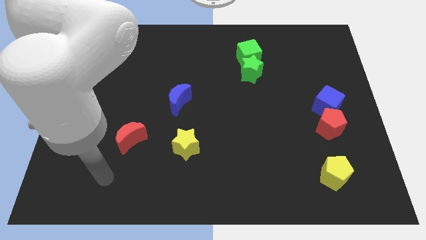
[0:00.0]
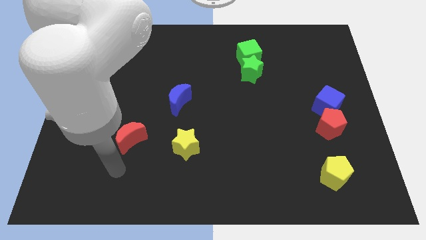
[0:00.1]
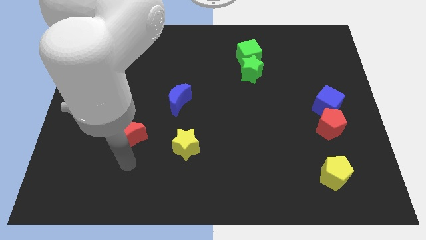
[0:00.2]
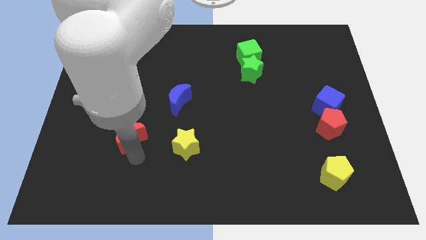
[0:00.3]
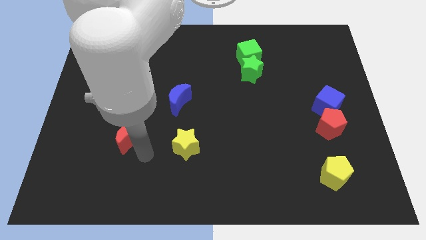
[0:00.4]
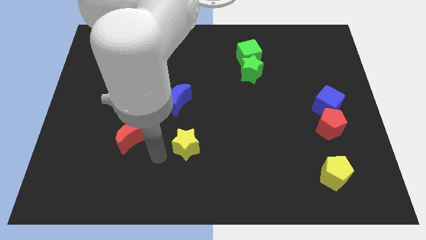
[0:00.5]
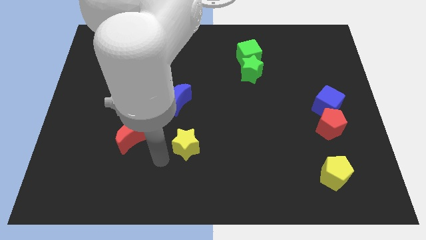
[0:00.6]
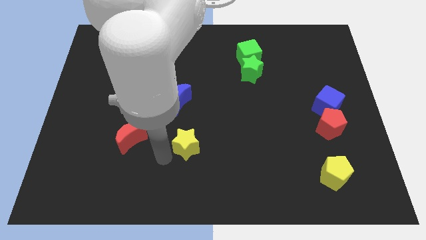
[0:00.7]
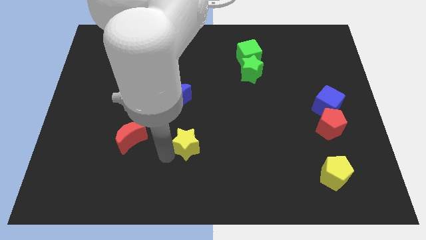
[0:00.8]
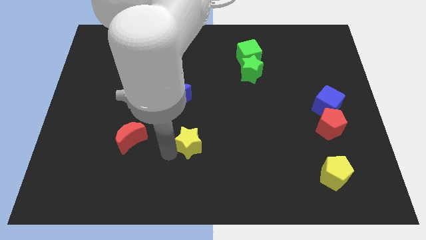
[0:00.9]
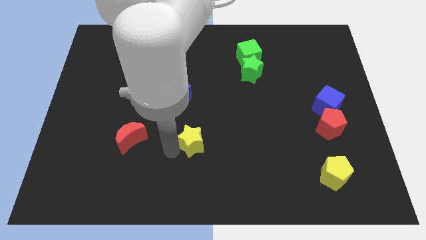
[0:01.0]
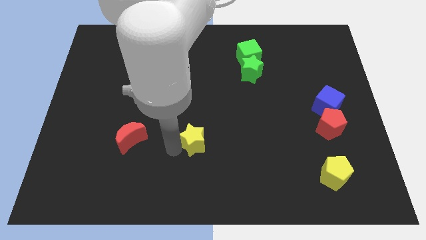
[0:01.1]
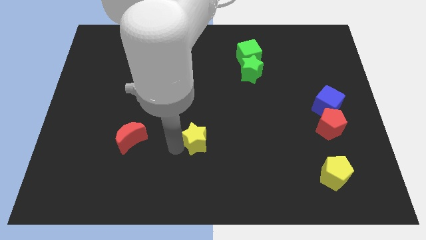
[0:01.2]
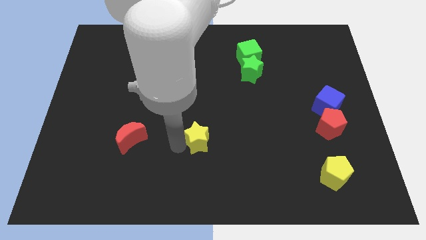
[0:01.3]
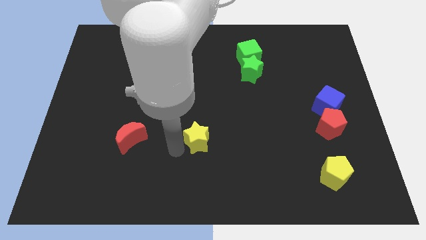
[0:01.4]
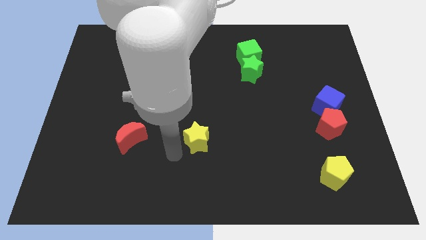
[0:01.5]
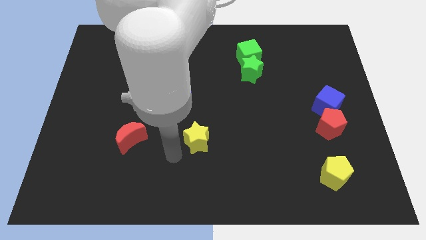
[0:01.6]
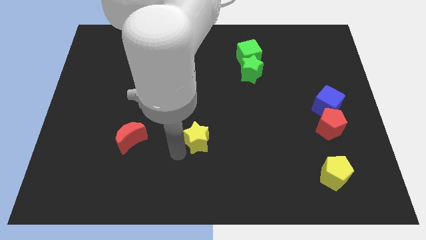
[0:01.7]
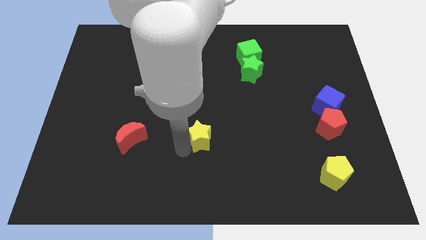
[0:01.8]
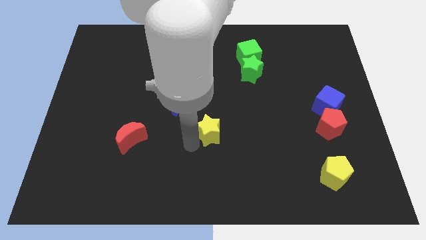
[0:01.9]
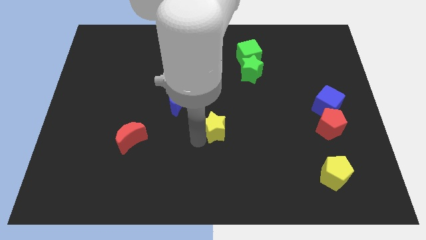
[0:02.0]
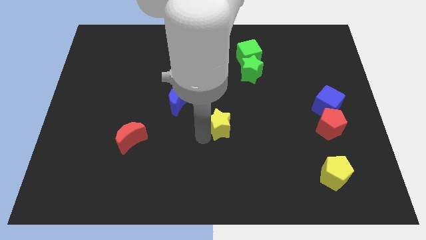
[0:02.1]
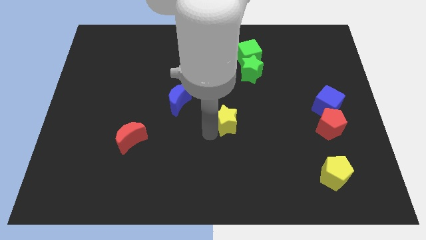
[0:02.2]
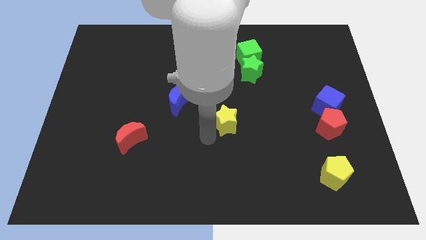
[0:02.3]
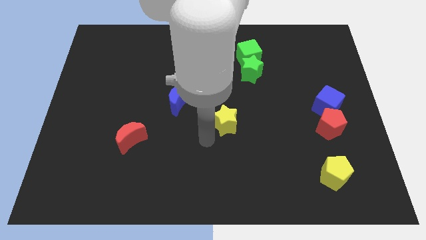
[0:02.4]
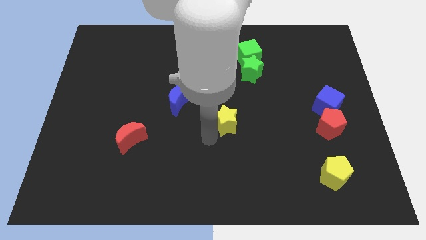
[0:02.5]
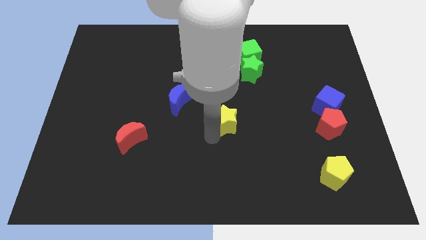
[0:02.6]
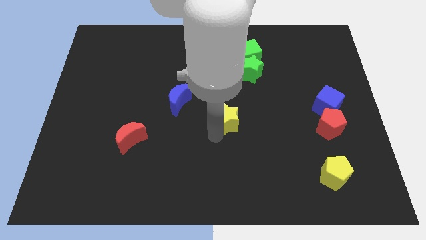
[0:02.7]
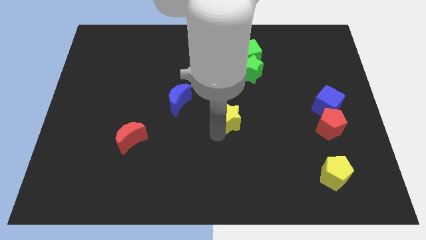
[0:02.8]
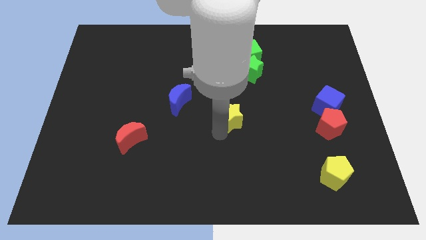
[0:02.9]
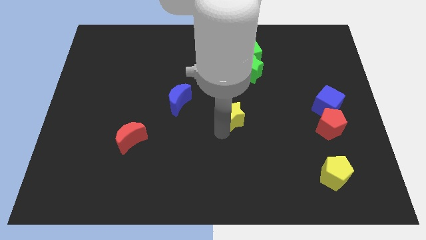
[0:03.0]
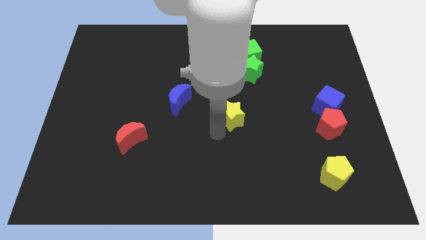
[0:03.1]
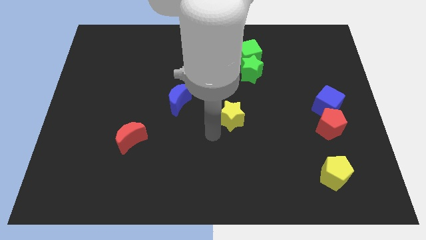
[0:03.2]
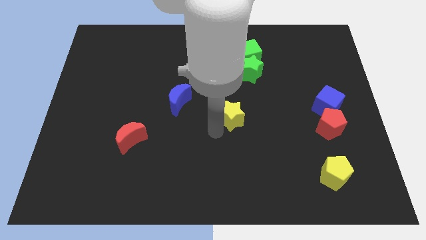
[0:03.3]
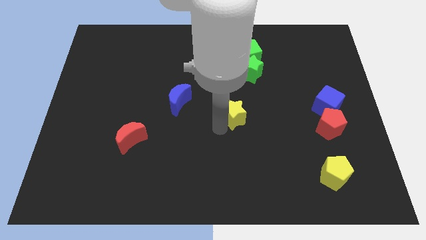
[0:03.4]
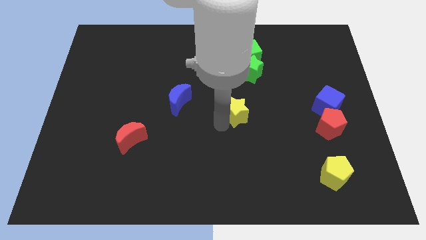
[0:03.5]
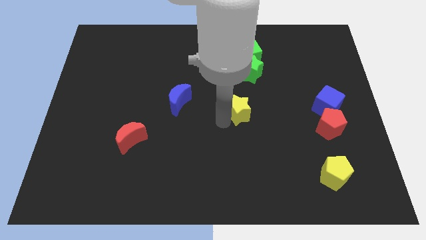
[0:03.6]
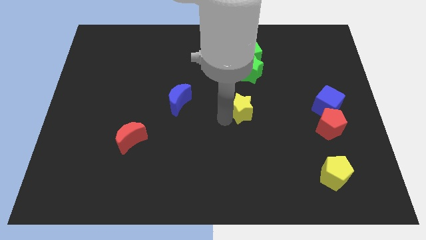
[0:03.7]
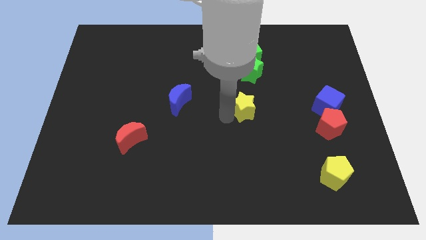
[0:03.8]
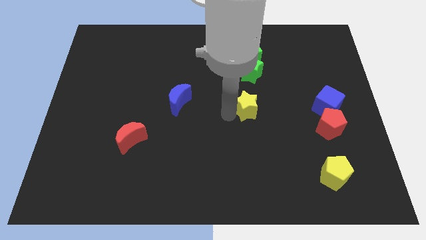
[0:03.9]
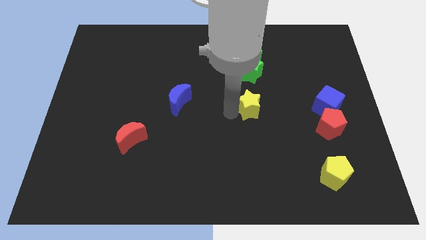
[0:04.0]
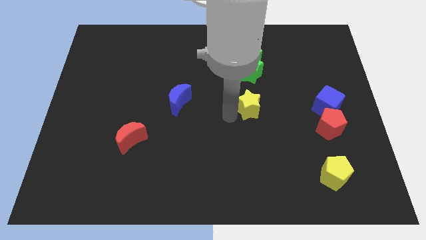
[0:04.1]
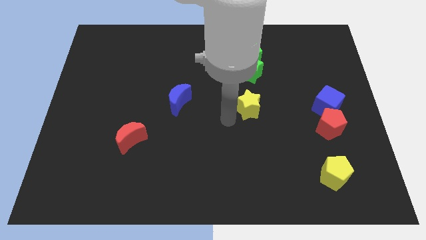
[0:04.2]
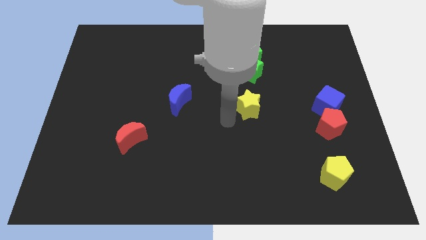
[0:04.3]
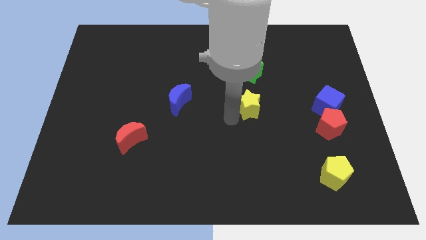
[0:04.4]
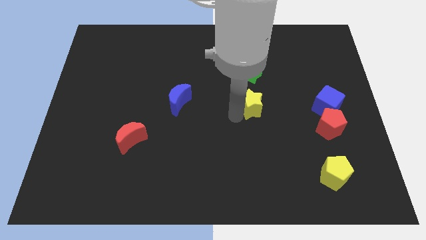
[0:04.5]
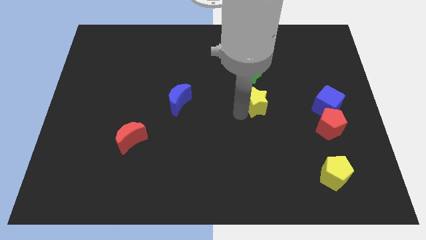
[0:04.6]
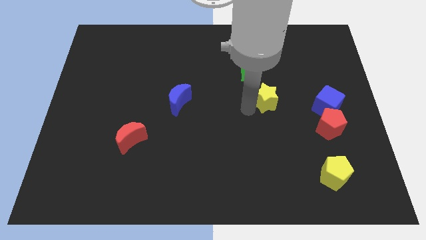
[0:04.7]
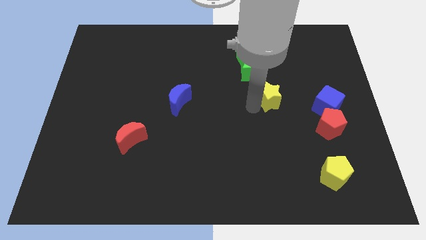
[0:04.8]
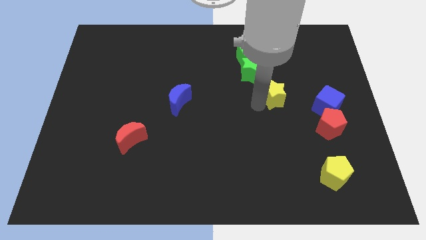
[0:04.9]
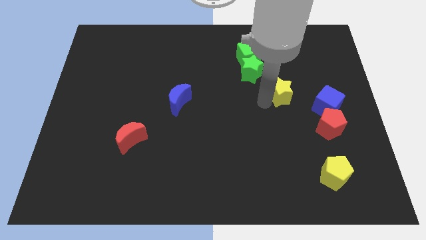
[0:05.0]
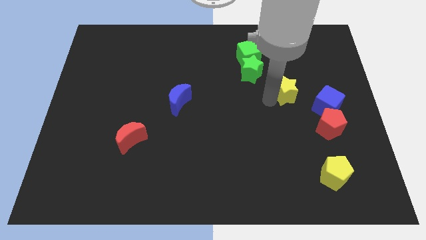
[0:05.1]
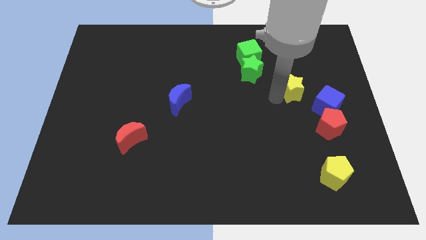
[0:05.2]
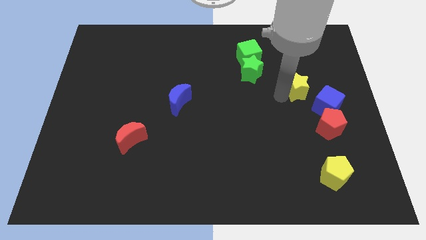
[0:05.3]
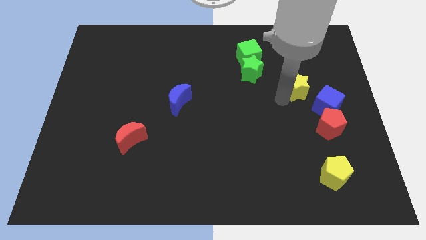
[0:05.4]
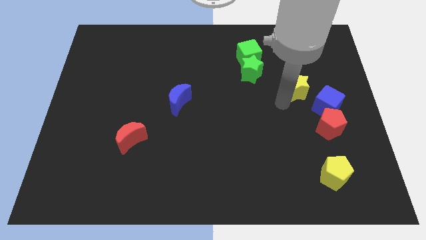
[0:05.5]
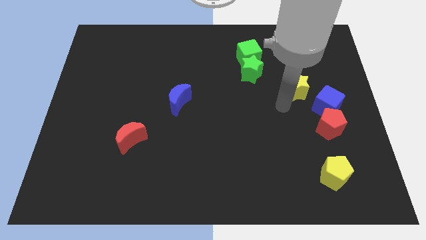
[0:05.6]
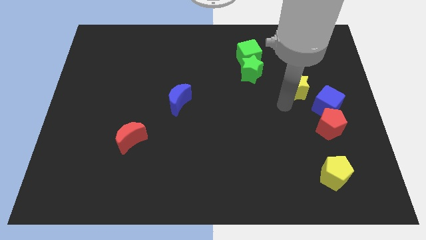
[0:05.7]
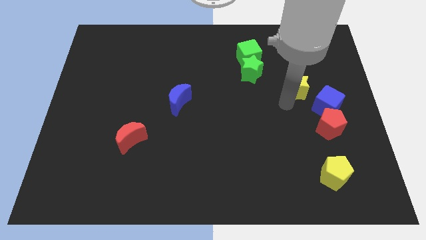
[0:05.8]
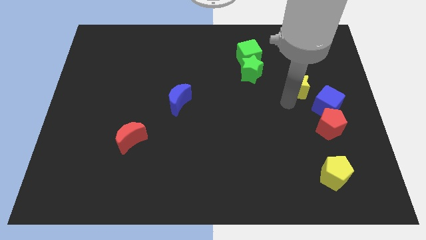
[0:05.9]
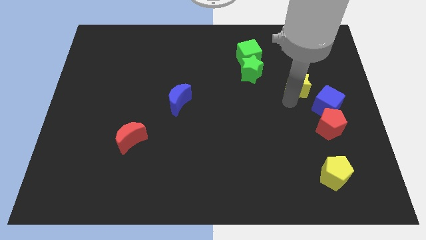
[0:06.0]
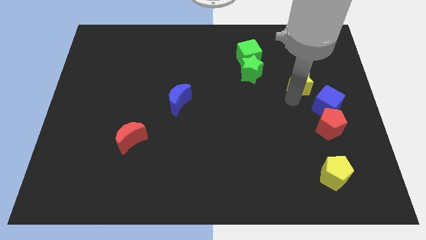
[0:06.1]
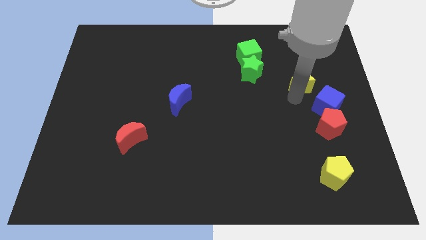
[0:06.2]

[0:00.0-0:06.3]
put the yellow star to the top of the blue cube
